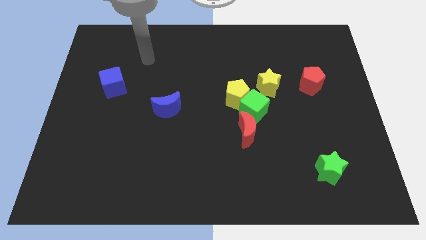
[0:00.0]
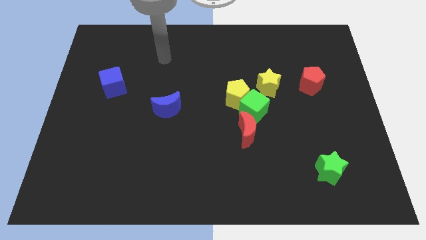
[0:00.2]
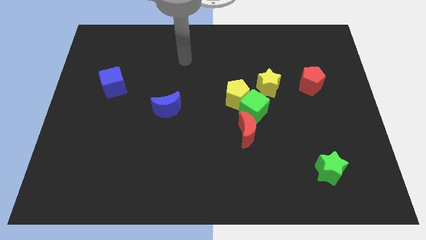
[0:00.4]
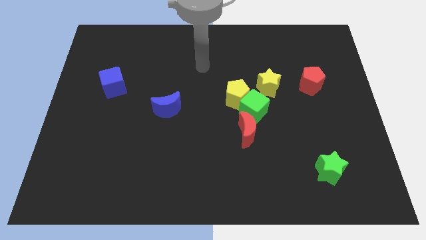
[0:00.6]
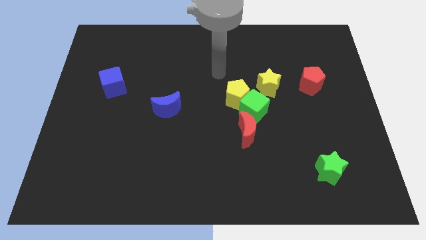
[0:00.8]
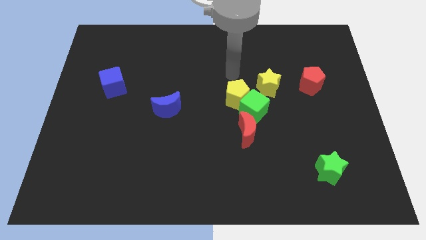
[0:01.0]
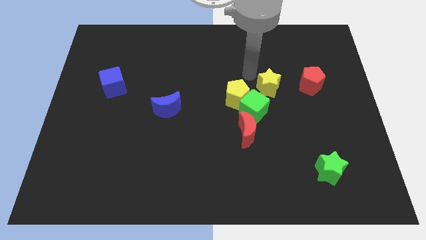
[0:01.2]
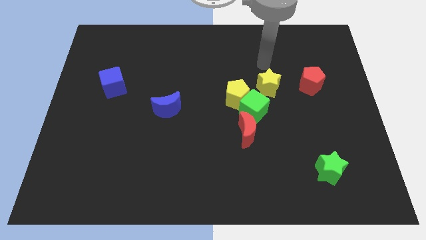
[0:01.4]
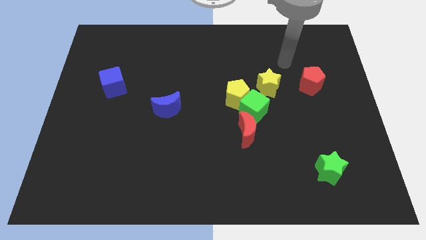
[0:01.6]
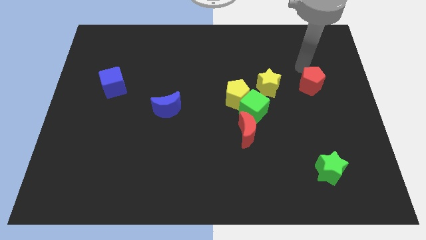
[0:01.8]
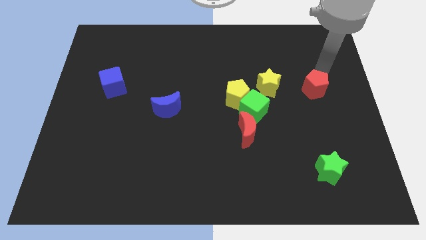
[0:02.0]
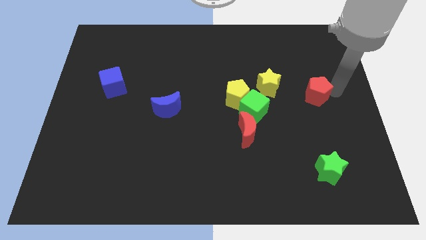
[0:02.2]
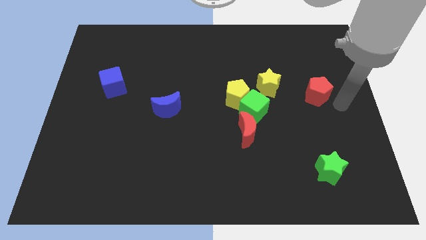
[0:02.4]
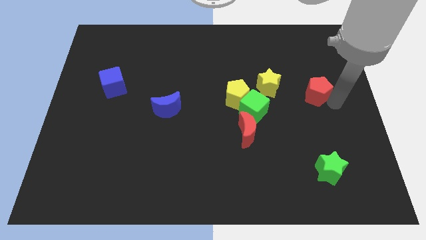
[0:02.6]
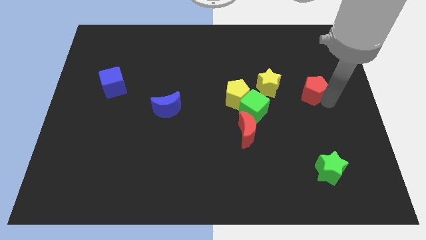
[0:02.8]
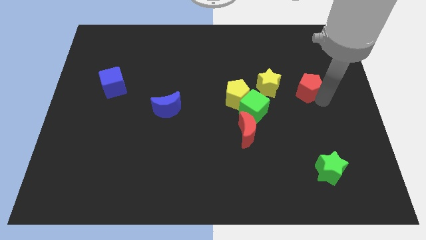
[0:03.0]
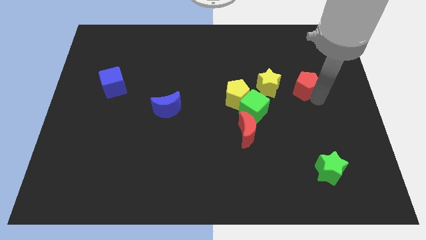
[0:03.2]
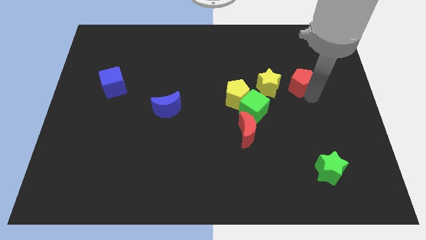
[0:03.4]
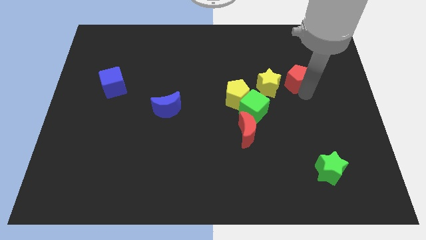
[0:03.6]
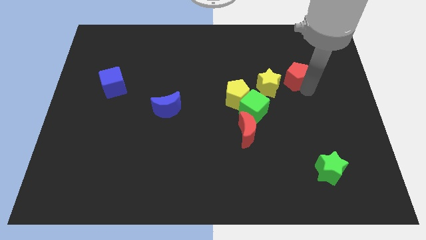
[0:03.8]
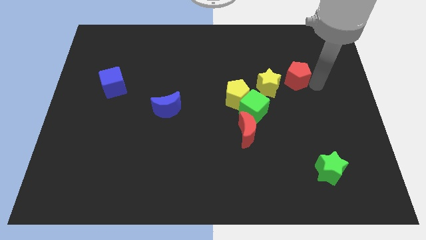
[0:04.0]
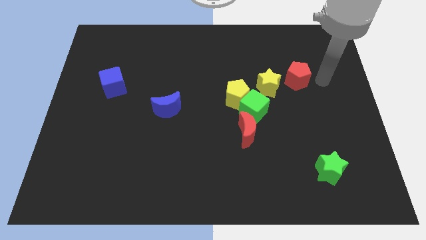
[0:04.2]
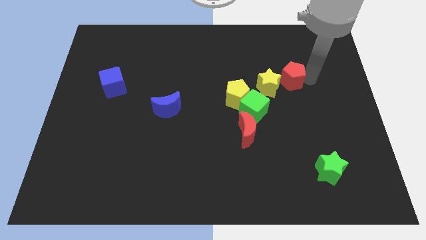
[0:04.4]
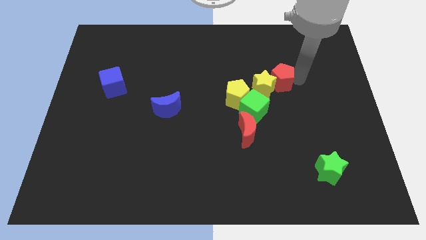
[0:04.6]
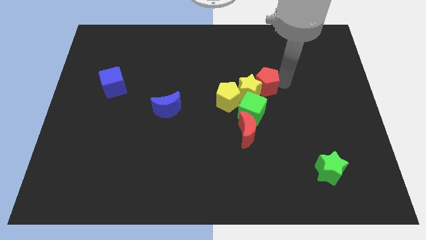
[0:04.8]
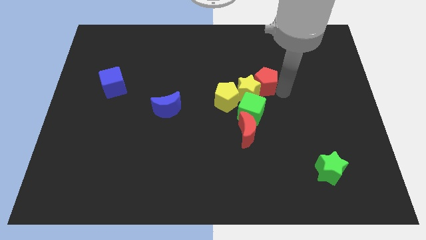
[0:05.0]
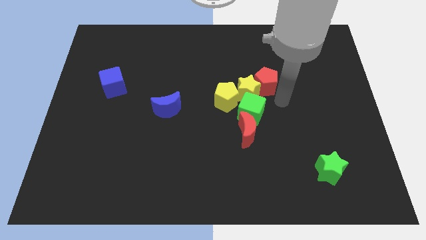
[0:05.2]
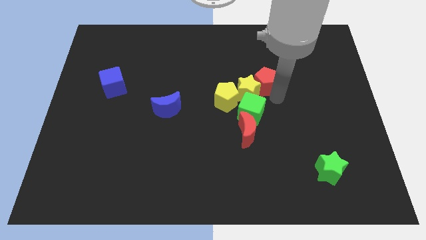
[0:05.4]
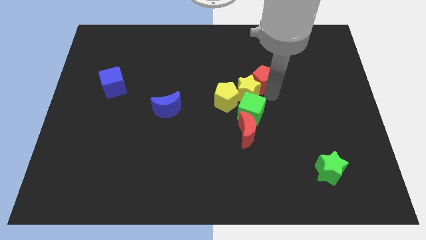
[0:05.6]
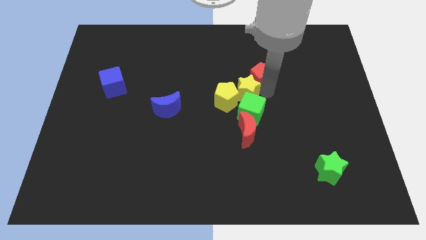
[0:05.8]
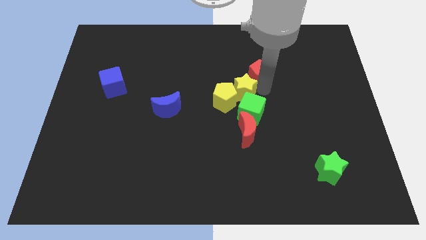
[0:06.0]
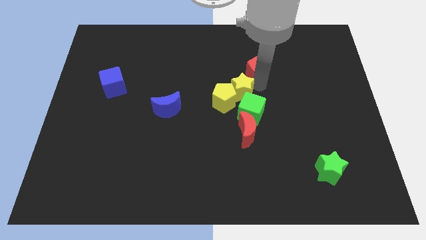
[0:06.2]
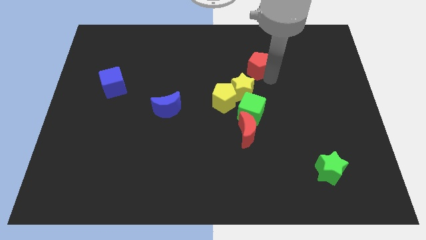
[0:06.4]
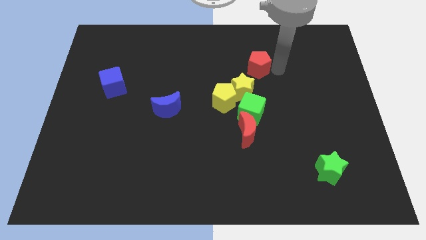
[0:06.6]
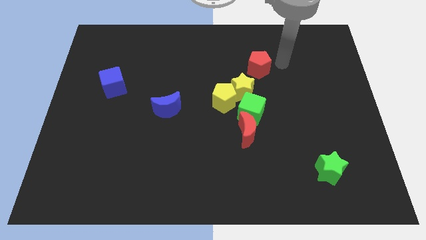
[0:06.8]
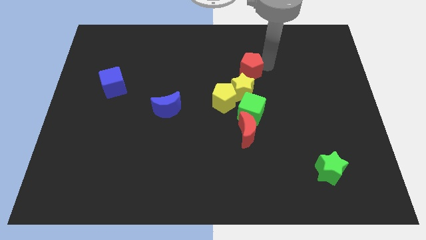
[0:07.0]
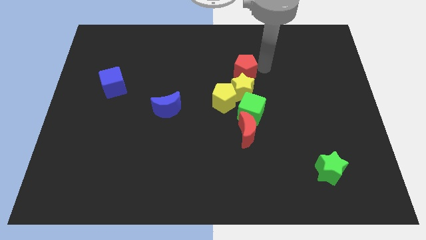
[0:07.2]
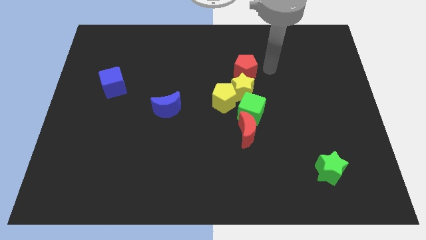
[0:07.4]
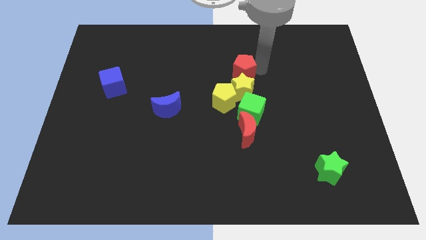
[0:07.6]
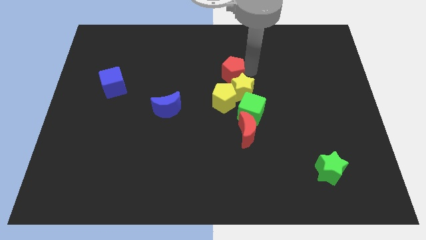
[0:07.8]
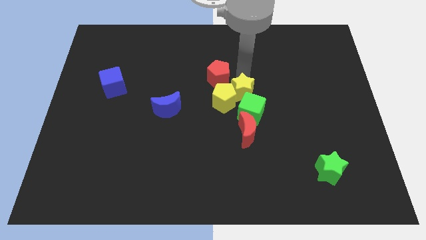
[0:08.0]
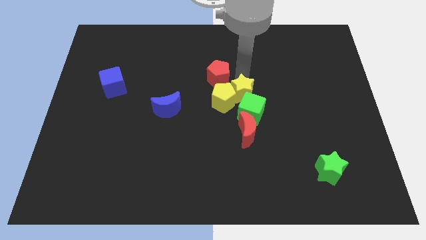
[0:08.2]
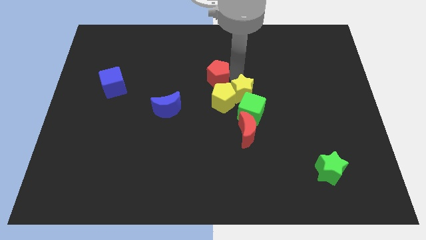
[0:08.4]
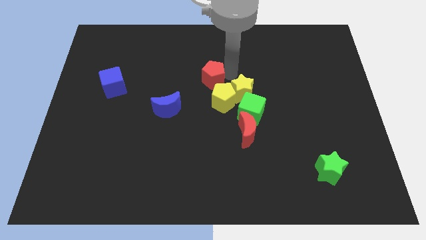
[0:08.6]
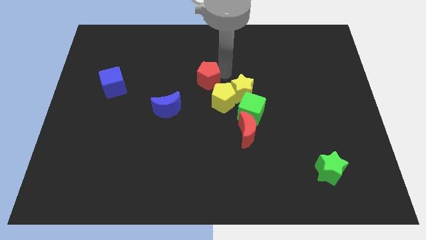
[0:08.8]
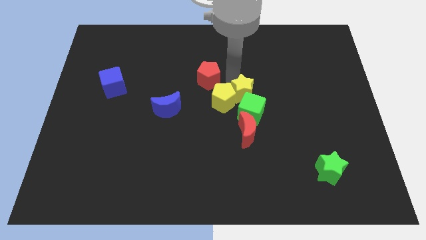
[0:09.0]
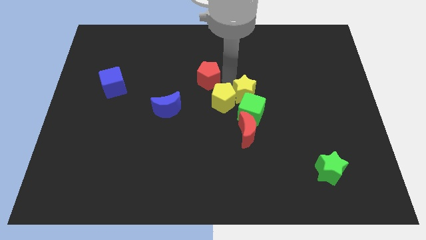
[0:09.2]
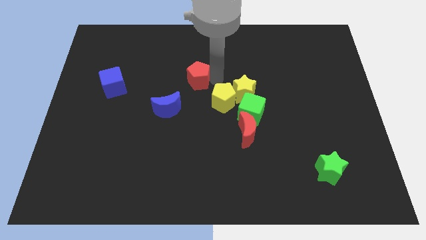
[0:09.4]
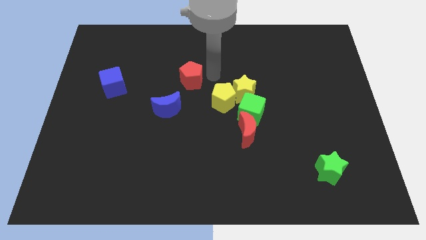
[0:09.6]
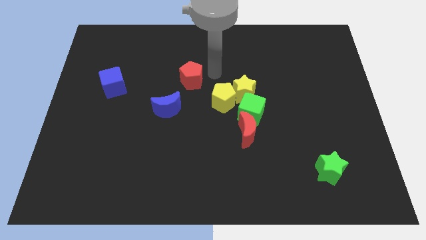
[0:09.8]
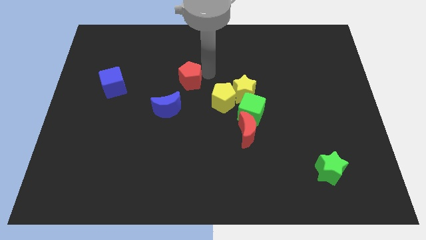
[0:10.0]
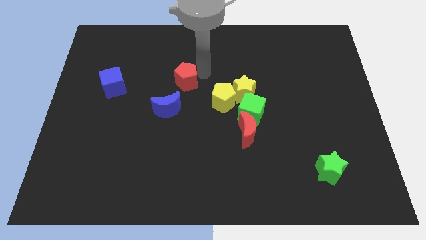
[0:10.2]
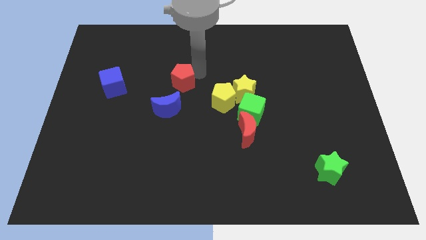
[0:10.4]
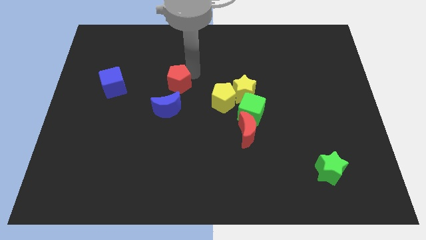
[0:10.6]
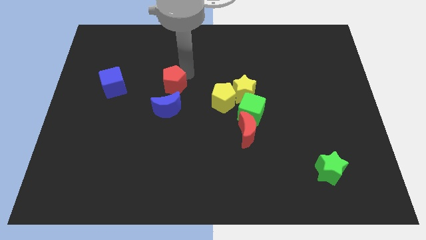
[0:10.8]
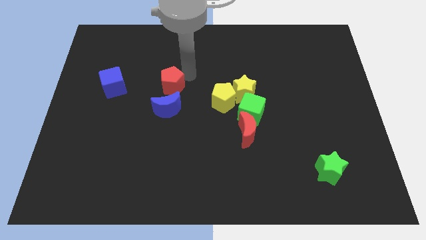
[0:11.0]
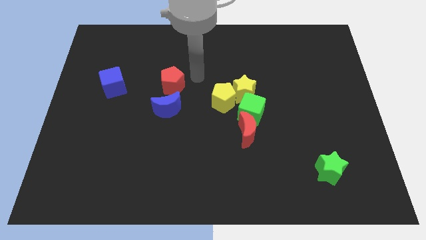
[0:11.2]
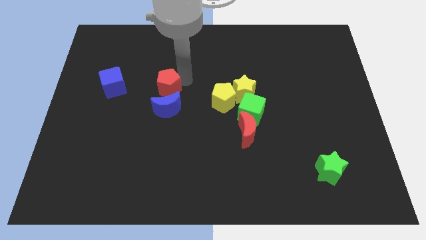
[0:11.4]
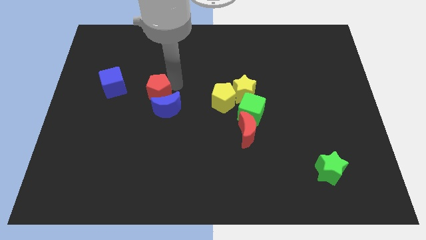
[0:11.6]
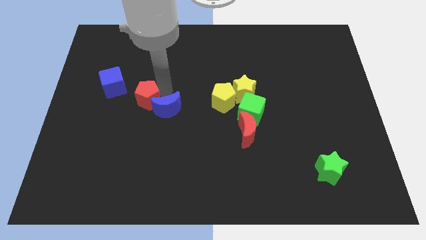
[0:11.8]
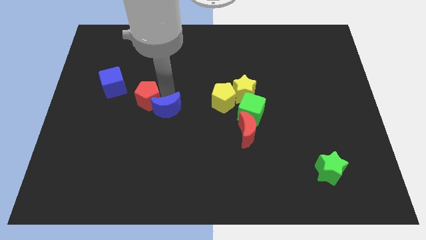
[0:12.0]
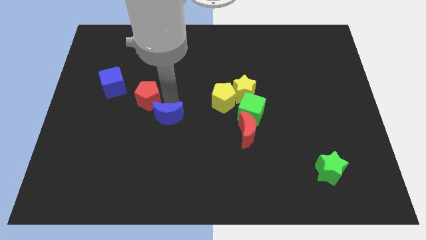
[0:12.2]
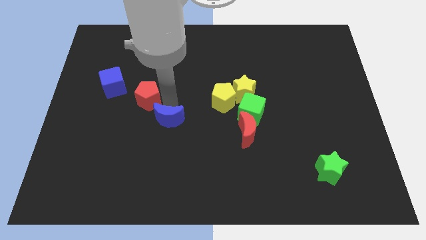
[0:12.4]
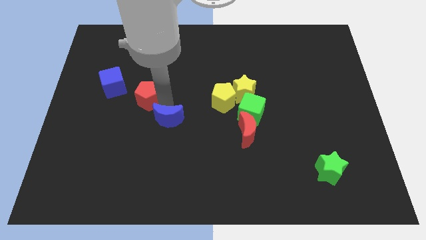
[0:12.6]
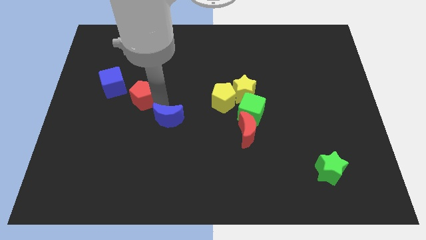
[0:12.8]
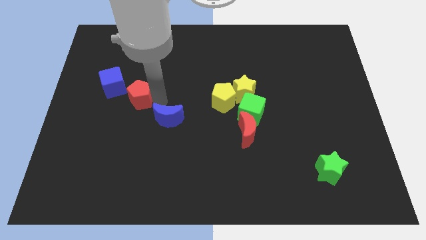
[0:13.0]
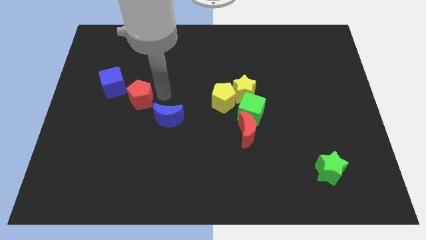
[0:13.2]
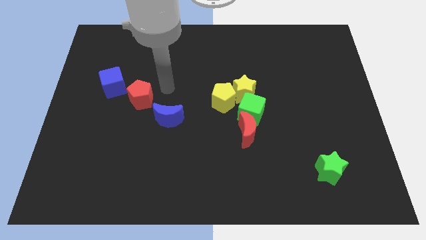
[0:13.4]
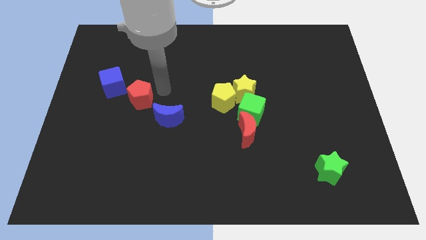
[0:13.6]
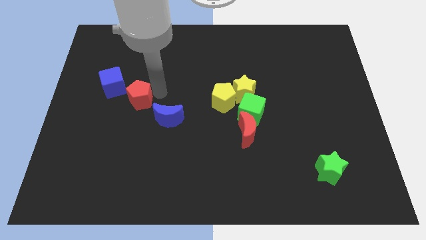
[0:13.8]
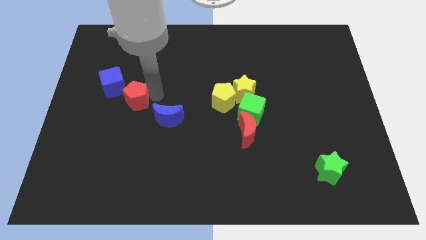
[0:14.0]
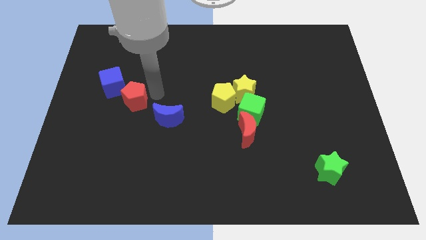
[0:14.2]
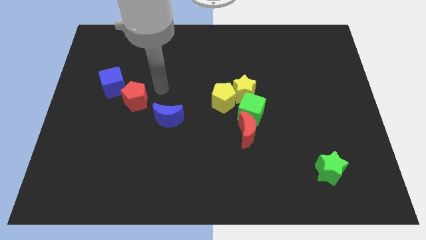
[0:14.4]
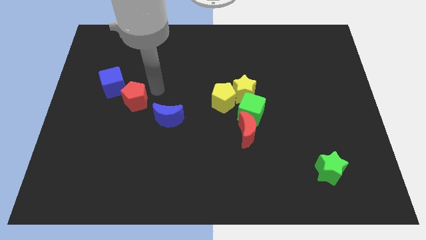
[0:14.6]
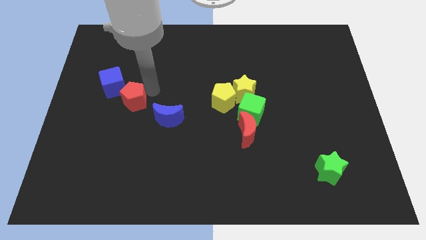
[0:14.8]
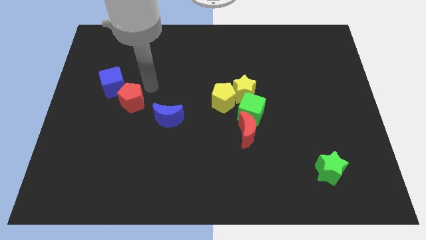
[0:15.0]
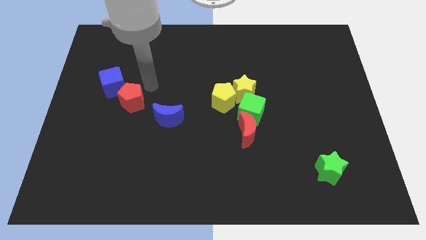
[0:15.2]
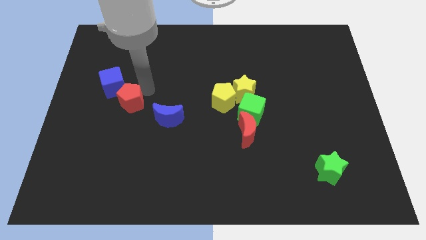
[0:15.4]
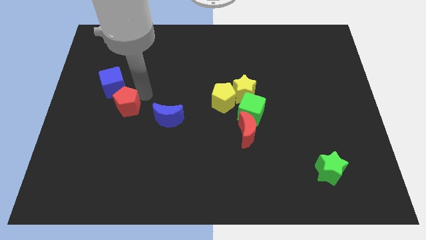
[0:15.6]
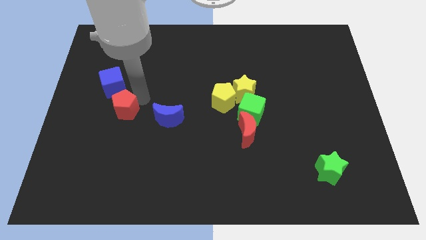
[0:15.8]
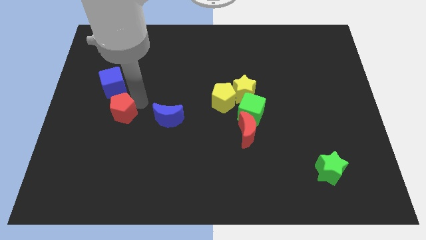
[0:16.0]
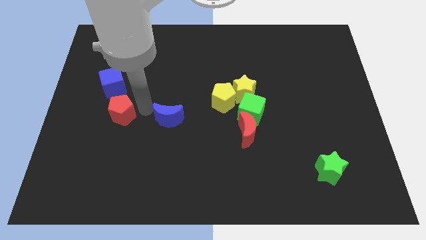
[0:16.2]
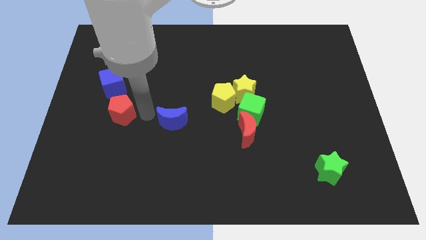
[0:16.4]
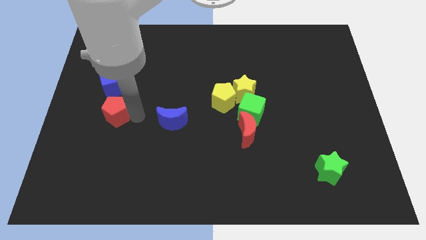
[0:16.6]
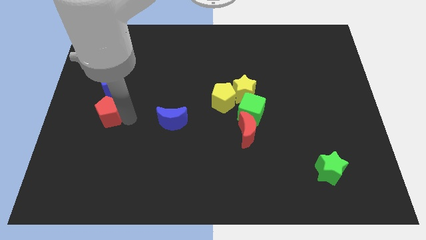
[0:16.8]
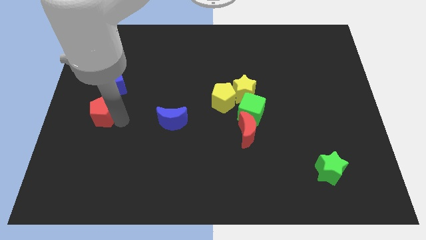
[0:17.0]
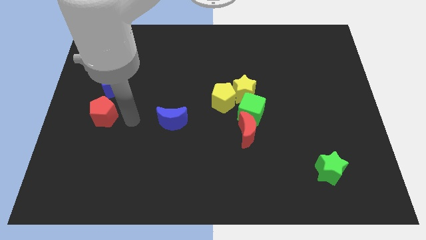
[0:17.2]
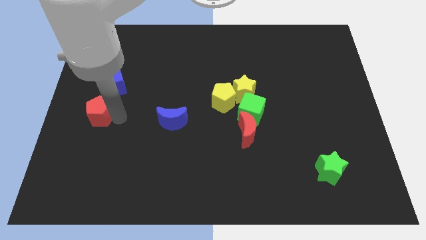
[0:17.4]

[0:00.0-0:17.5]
put the red pentagon to the center left
